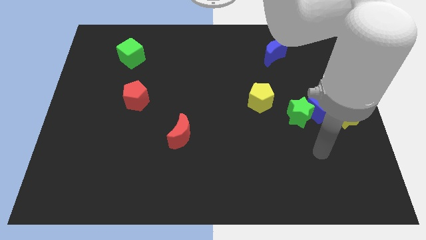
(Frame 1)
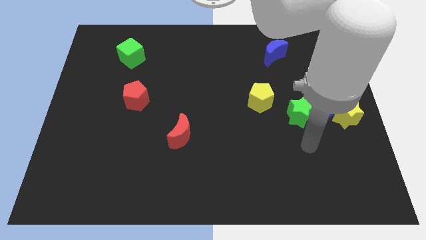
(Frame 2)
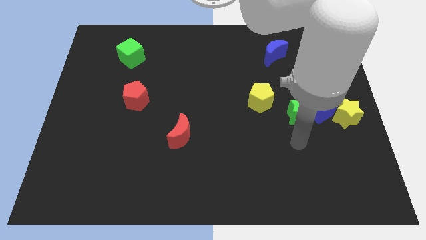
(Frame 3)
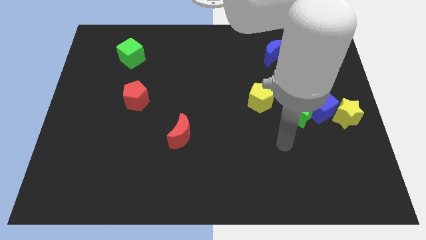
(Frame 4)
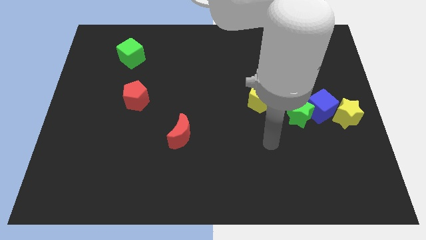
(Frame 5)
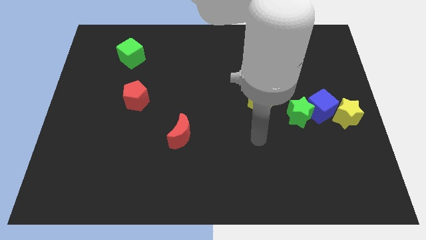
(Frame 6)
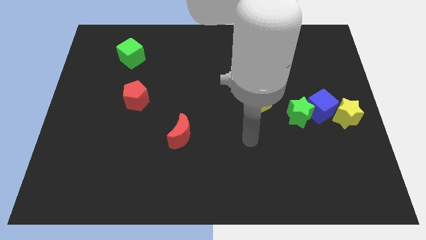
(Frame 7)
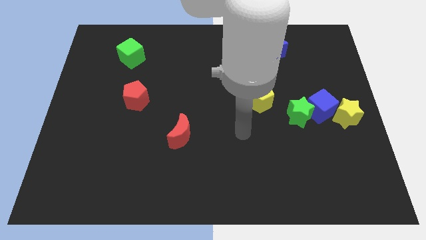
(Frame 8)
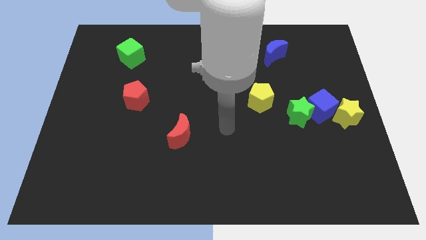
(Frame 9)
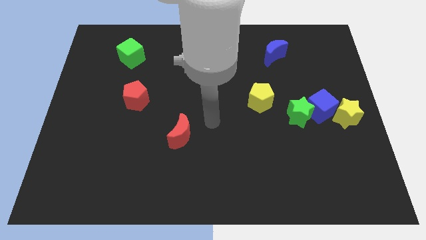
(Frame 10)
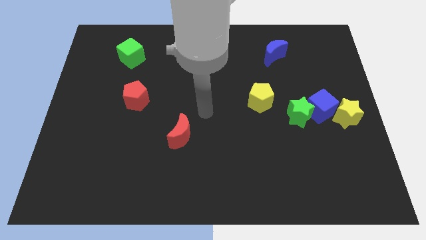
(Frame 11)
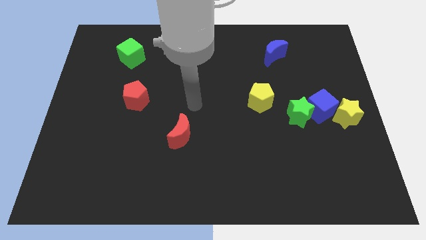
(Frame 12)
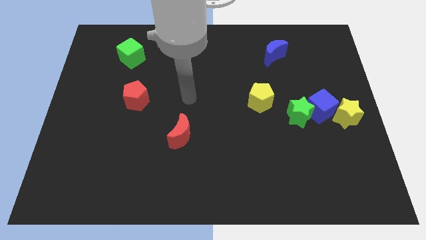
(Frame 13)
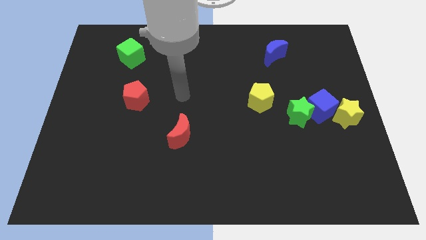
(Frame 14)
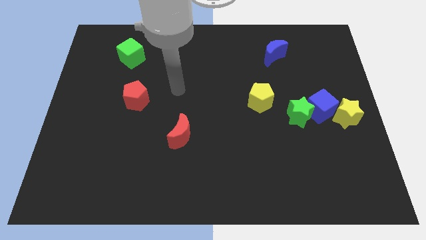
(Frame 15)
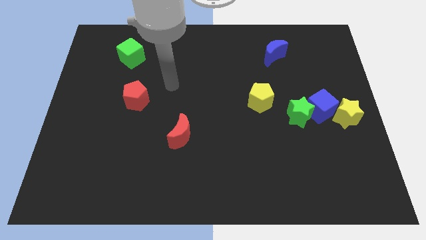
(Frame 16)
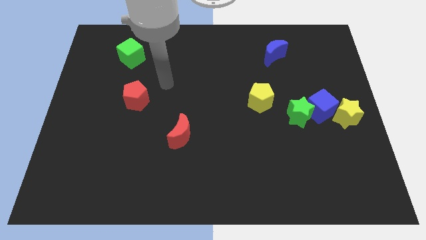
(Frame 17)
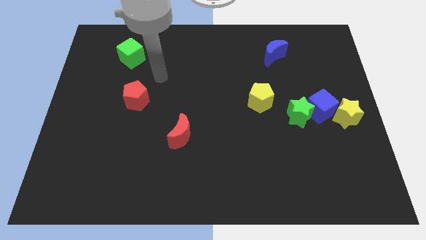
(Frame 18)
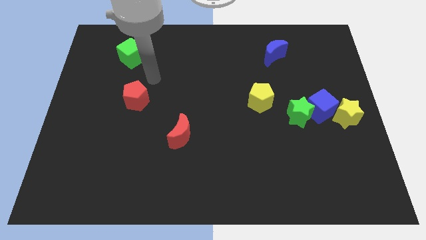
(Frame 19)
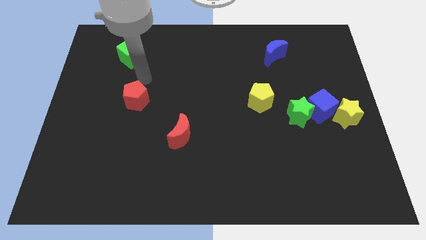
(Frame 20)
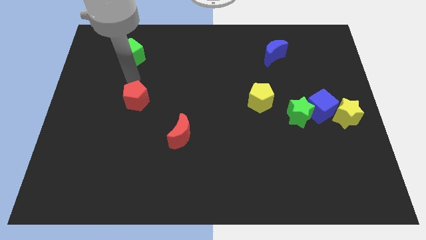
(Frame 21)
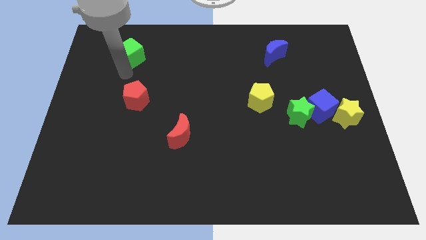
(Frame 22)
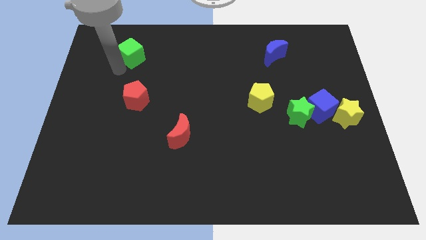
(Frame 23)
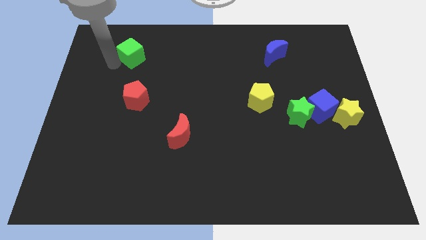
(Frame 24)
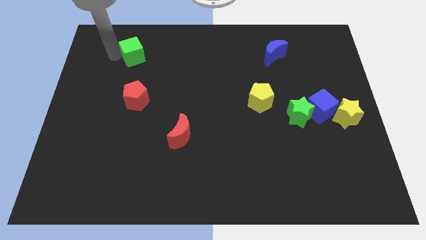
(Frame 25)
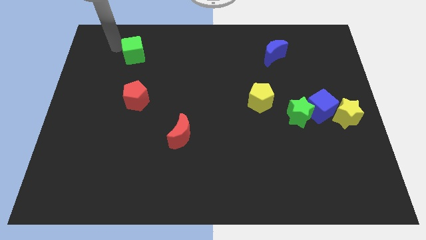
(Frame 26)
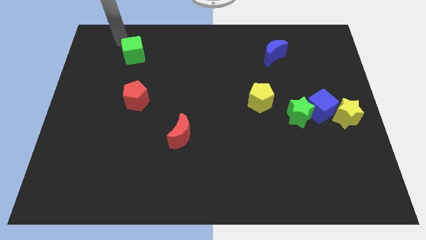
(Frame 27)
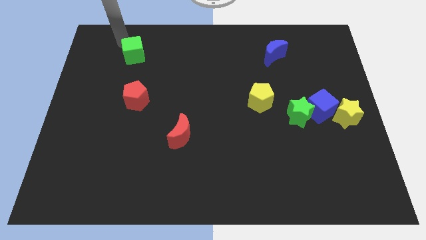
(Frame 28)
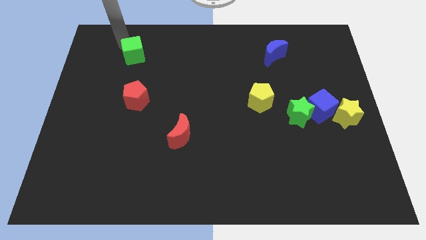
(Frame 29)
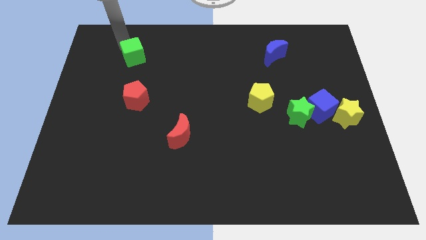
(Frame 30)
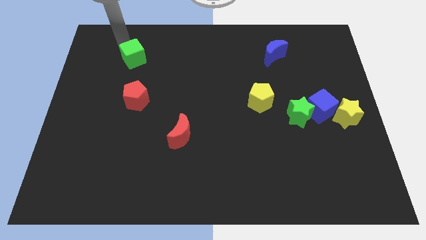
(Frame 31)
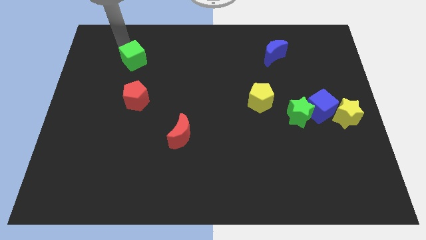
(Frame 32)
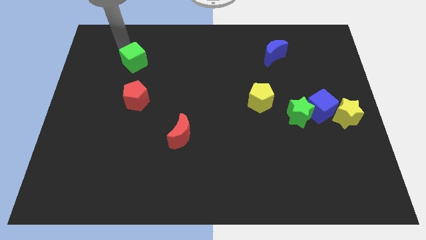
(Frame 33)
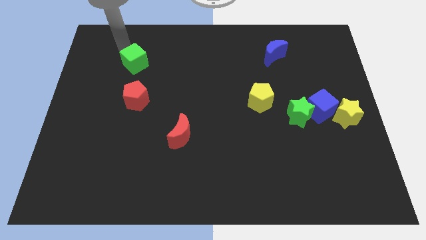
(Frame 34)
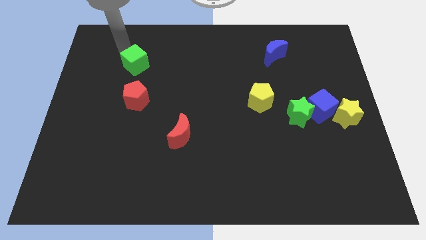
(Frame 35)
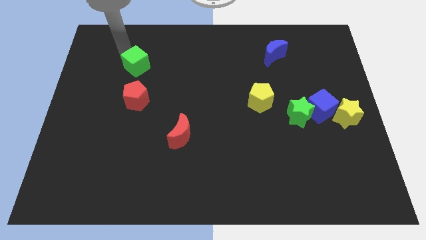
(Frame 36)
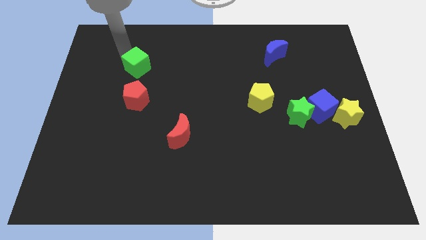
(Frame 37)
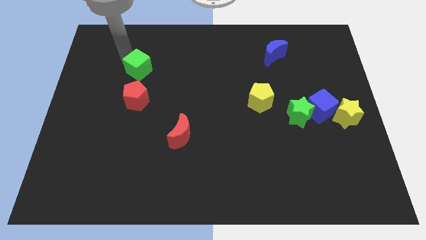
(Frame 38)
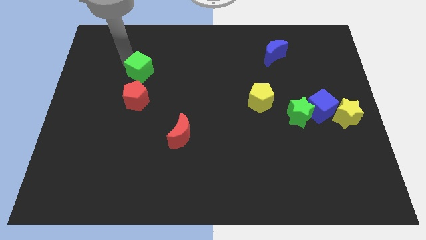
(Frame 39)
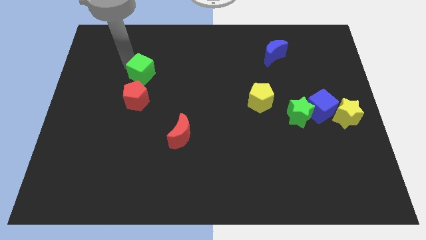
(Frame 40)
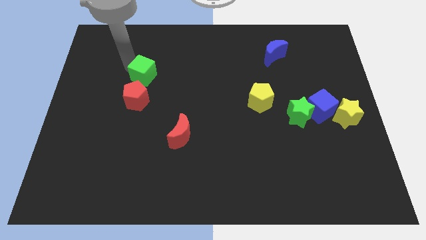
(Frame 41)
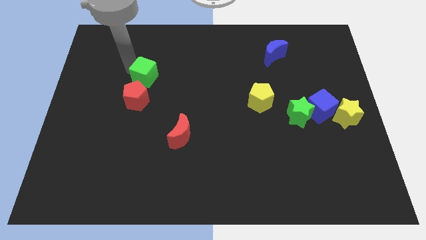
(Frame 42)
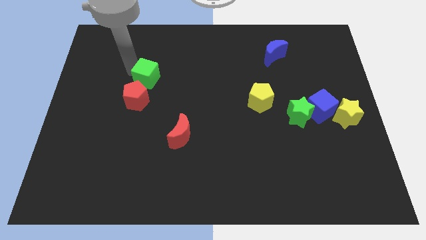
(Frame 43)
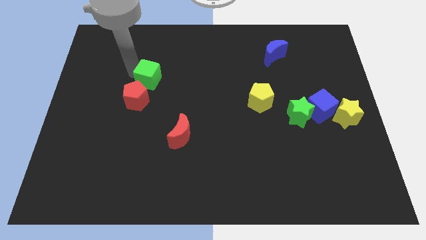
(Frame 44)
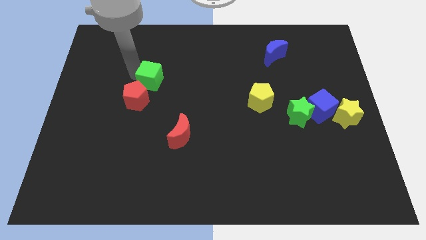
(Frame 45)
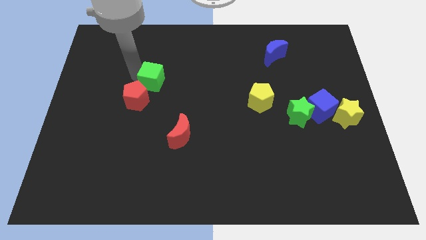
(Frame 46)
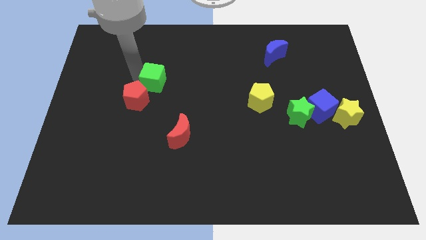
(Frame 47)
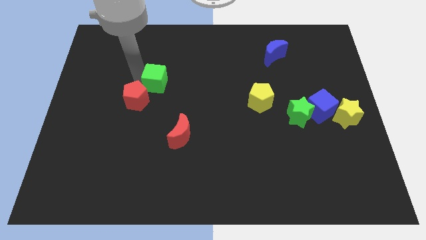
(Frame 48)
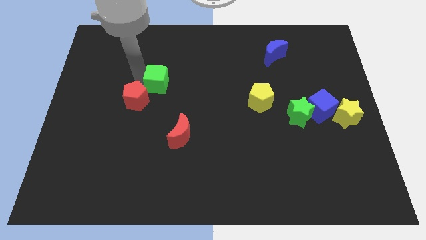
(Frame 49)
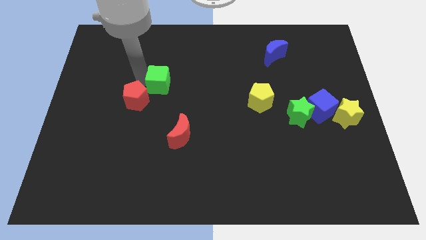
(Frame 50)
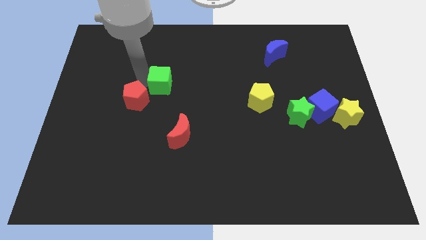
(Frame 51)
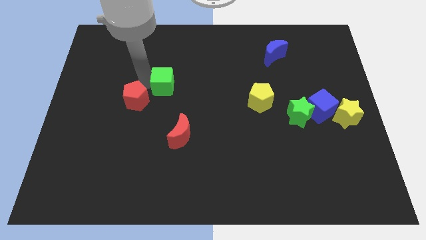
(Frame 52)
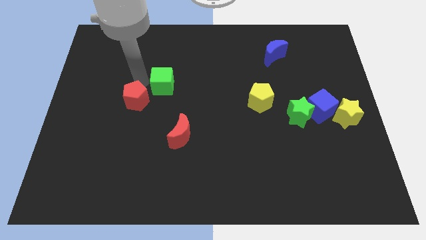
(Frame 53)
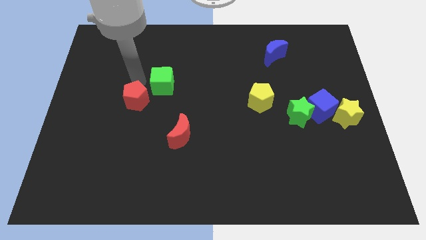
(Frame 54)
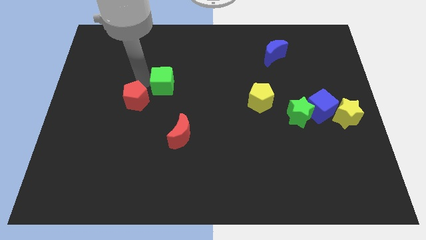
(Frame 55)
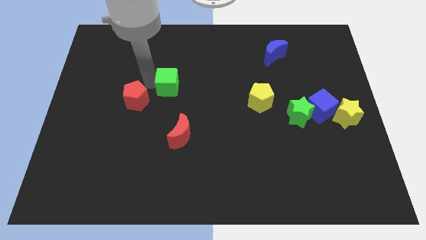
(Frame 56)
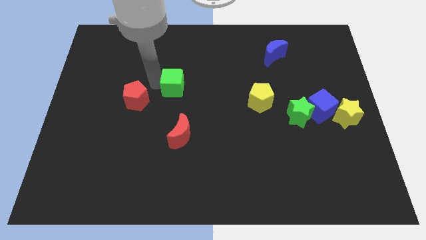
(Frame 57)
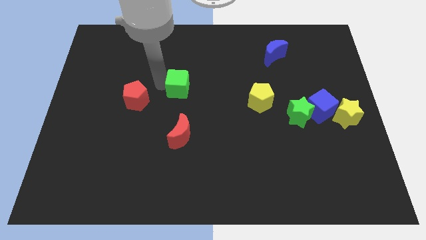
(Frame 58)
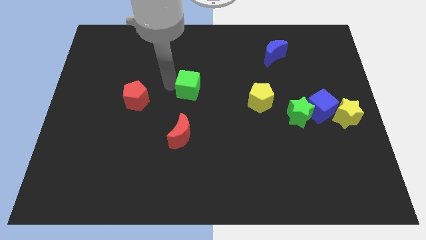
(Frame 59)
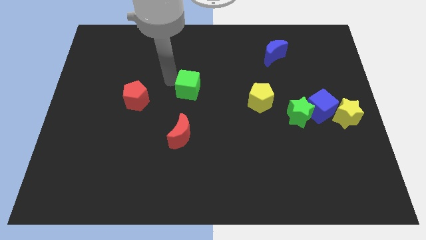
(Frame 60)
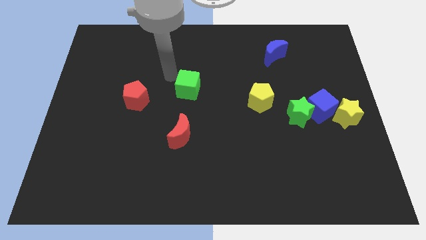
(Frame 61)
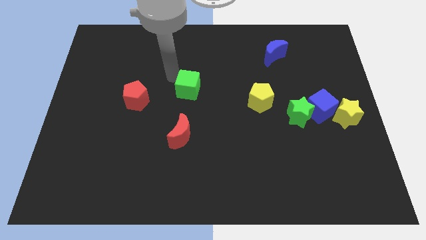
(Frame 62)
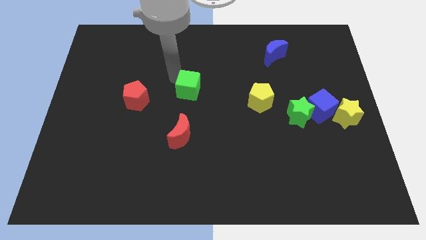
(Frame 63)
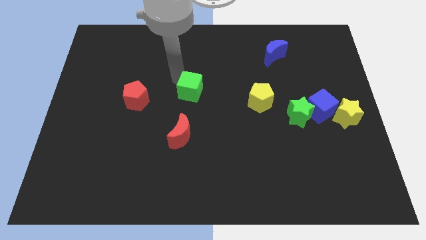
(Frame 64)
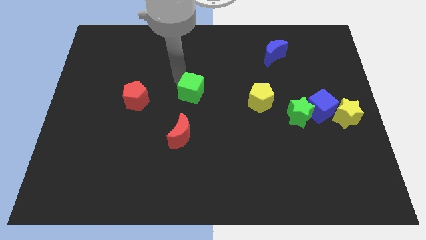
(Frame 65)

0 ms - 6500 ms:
slide the green cube down and right

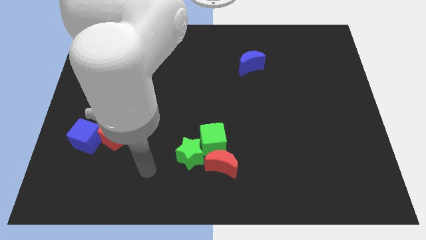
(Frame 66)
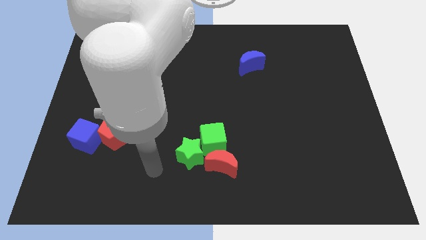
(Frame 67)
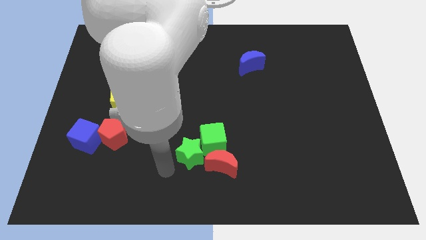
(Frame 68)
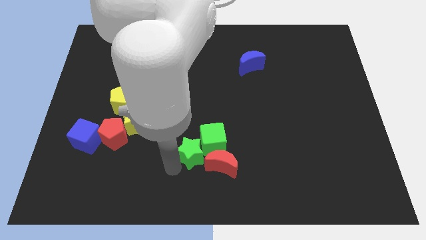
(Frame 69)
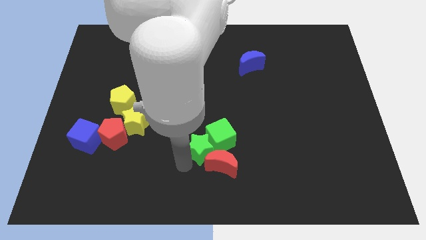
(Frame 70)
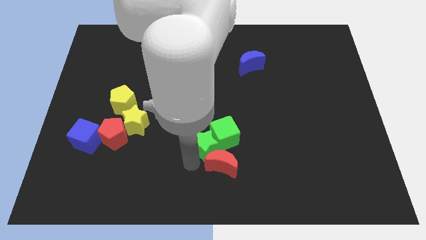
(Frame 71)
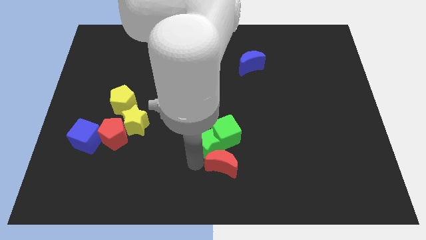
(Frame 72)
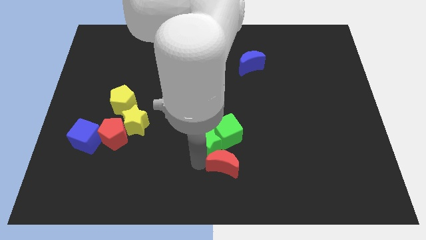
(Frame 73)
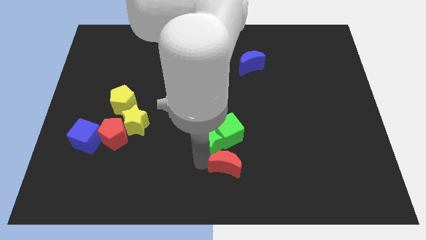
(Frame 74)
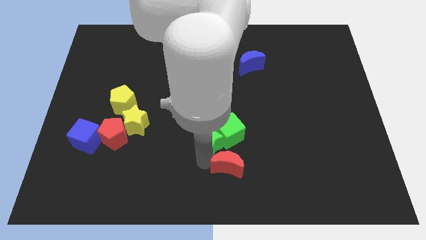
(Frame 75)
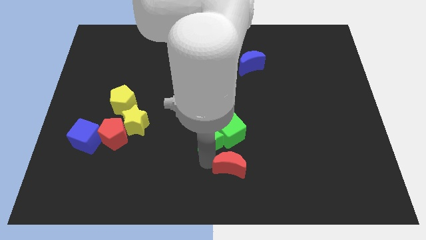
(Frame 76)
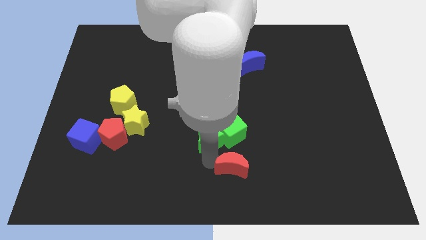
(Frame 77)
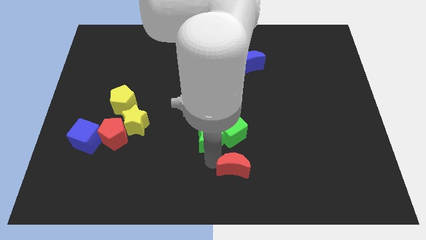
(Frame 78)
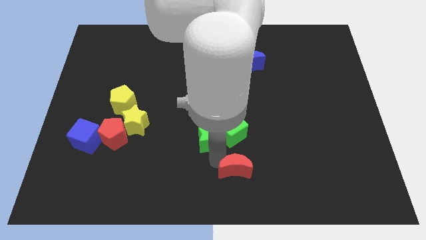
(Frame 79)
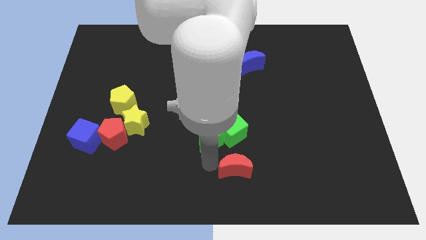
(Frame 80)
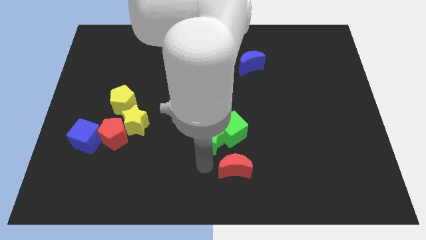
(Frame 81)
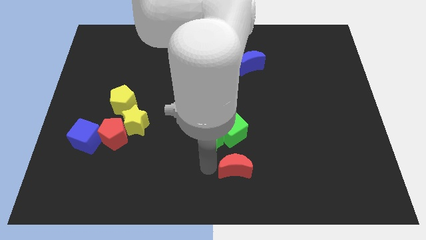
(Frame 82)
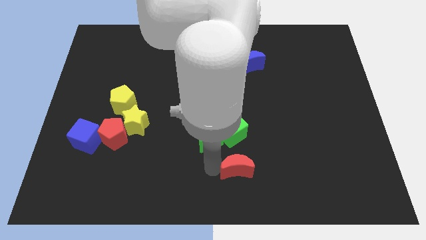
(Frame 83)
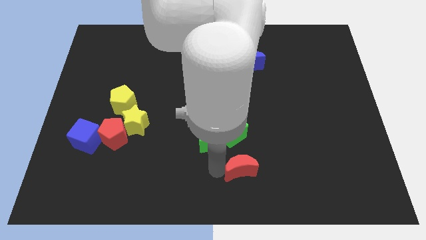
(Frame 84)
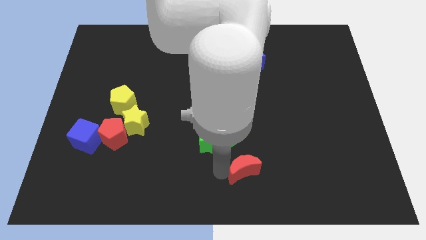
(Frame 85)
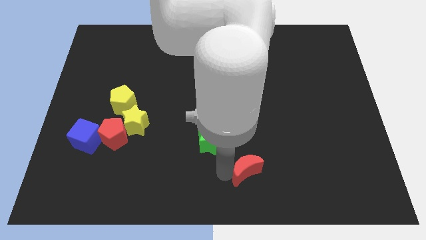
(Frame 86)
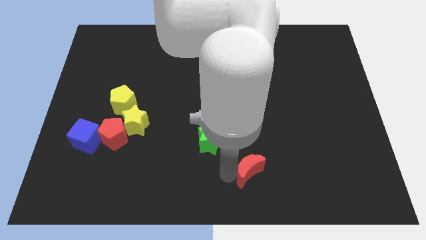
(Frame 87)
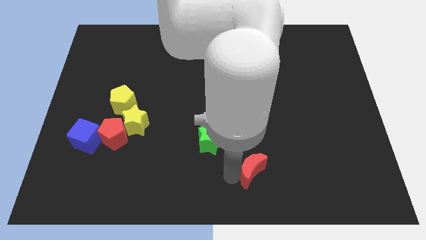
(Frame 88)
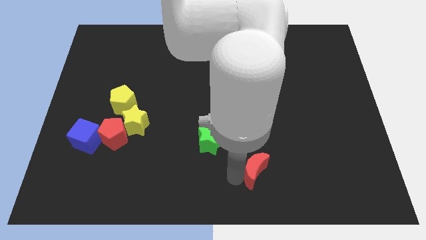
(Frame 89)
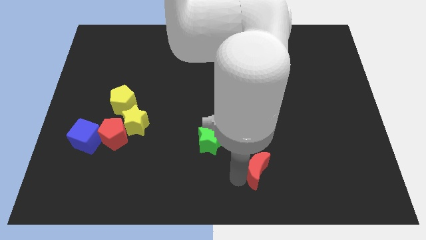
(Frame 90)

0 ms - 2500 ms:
slightly push the red moon to the right
